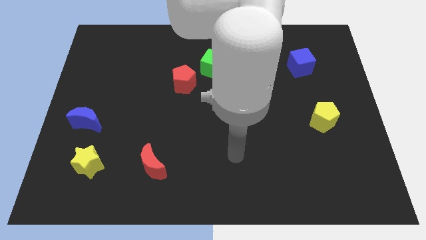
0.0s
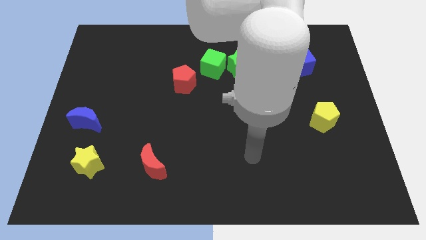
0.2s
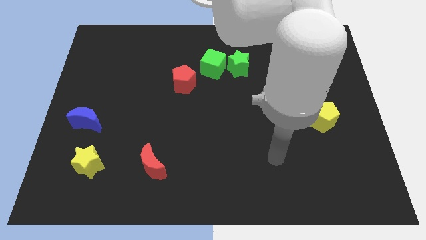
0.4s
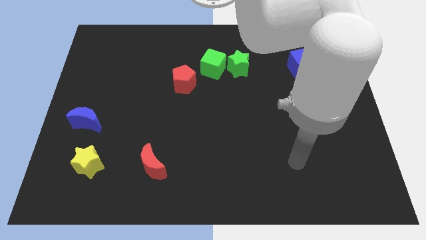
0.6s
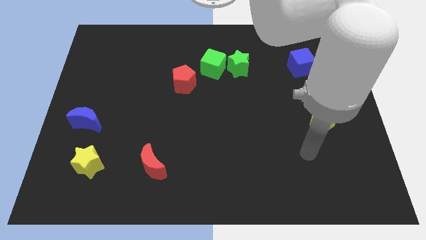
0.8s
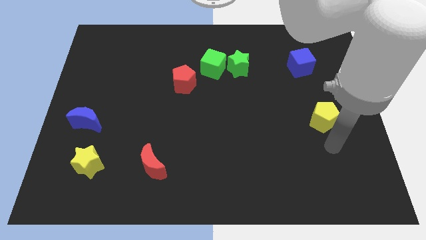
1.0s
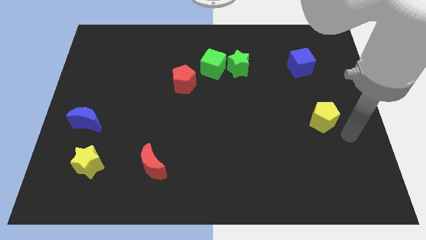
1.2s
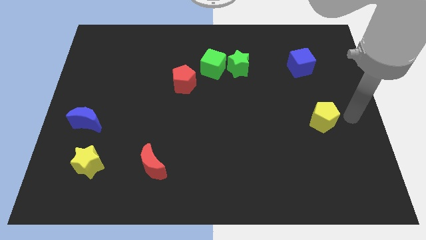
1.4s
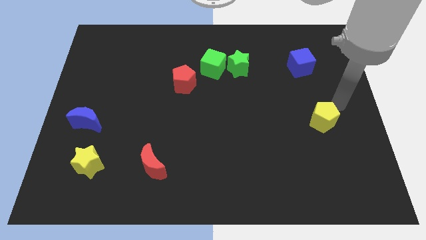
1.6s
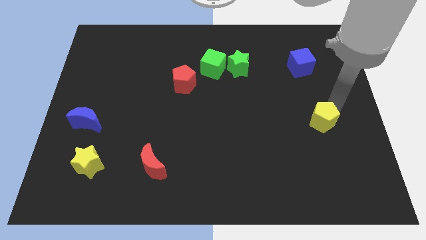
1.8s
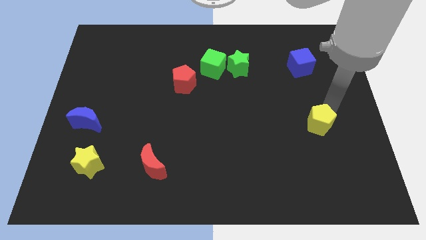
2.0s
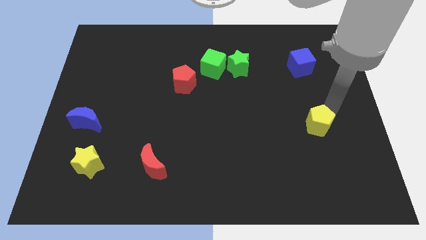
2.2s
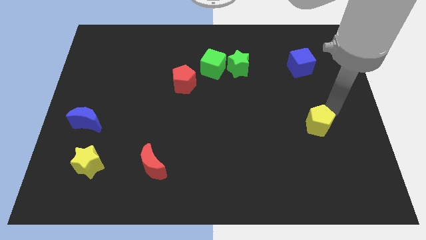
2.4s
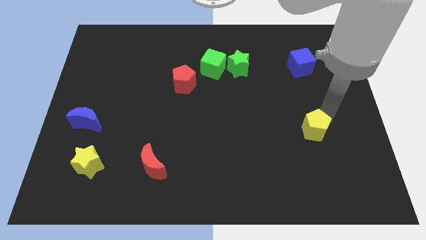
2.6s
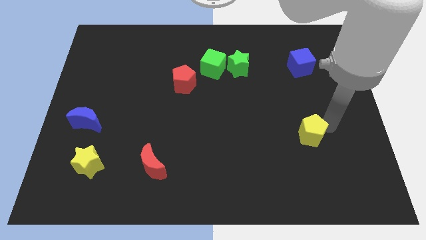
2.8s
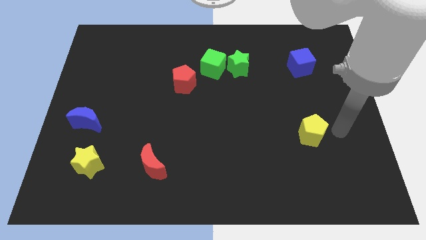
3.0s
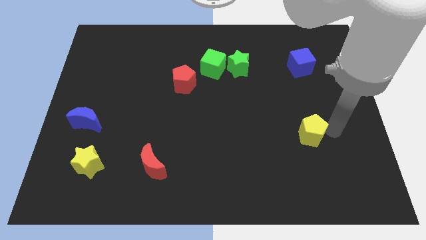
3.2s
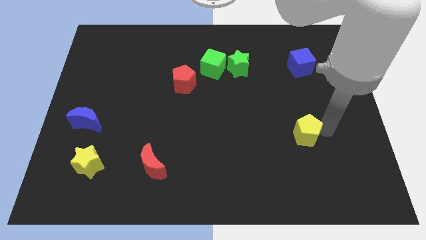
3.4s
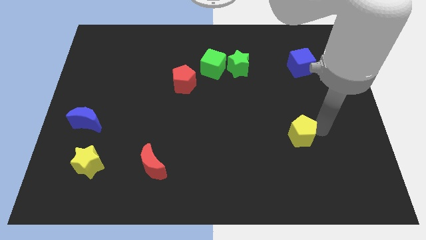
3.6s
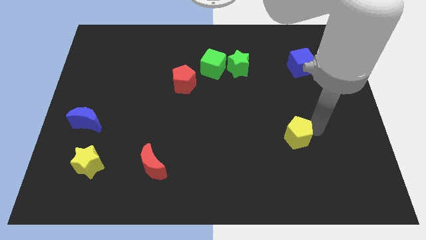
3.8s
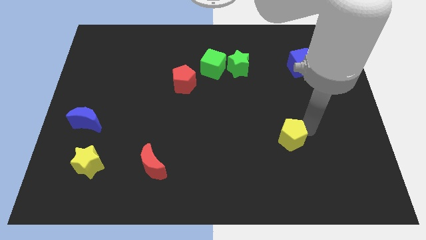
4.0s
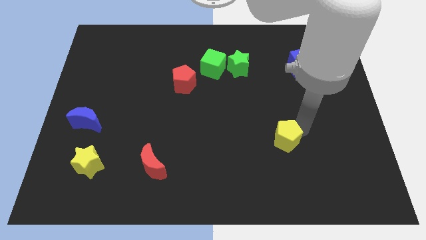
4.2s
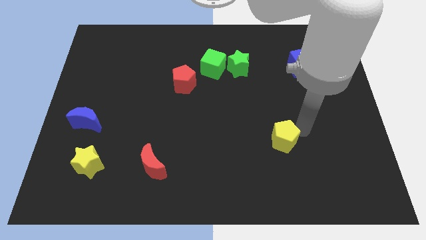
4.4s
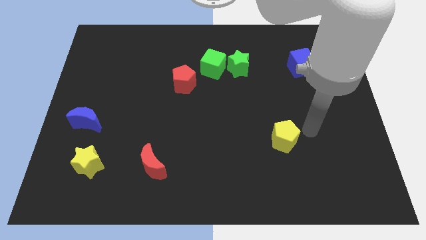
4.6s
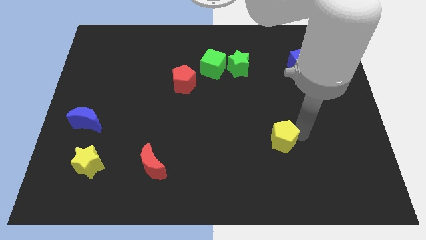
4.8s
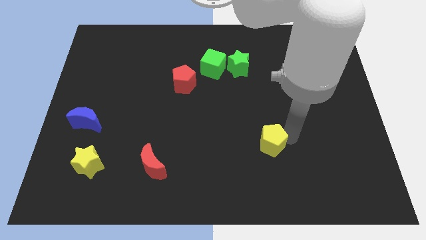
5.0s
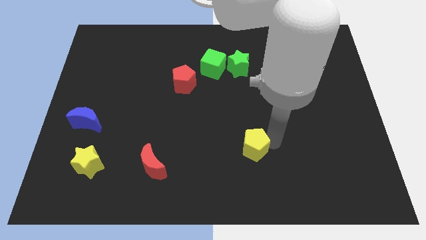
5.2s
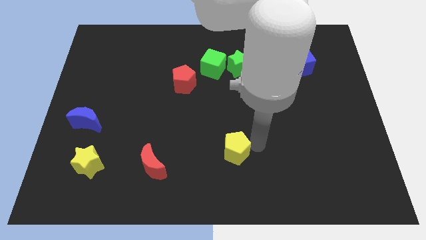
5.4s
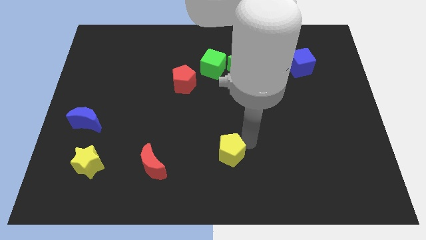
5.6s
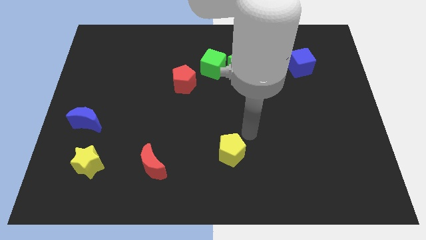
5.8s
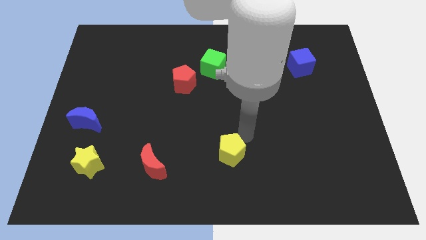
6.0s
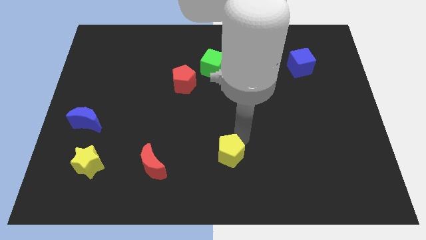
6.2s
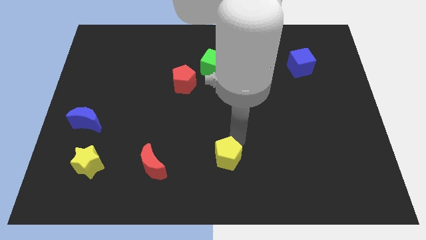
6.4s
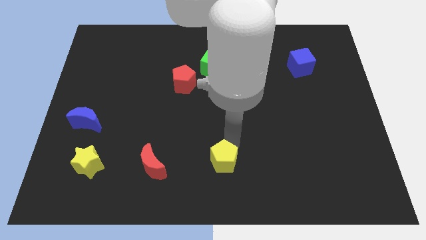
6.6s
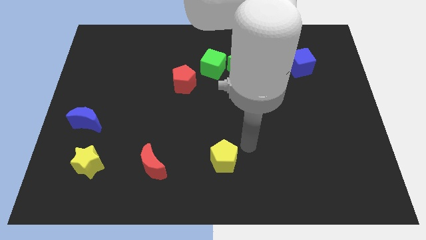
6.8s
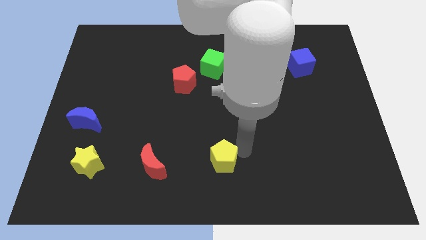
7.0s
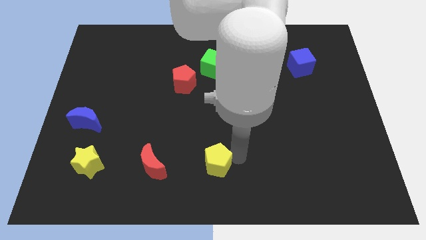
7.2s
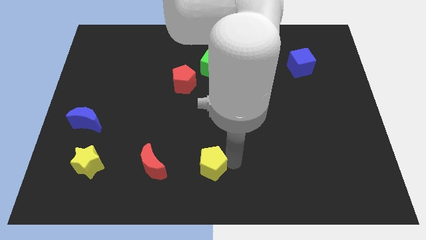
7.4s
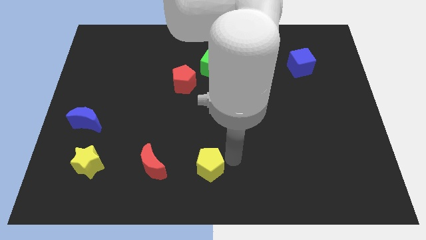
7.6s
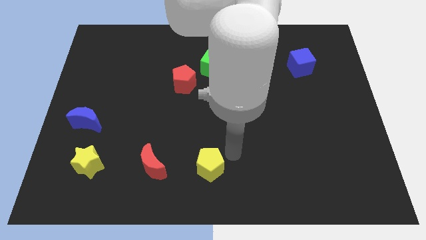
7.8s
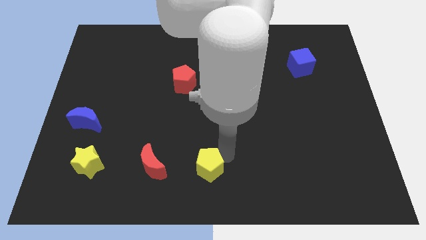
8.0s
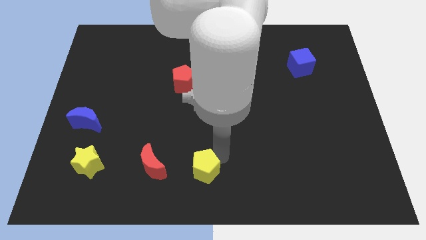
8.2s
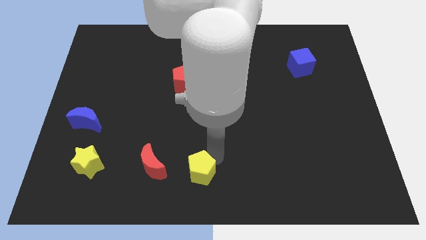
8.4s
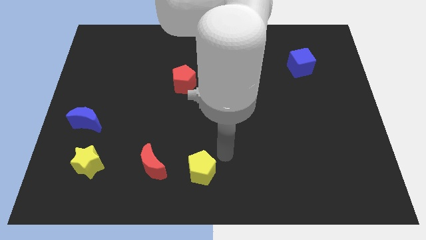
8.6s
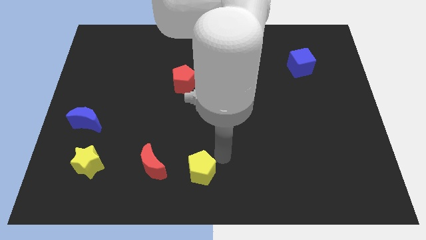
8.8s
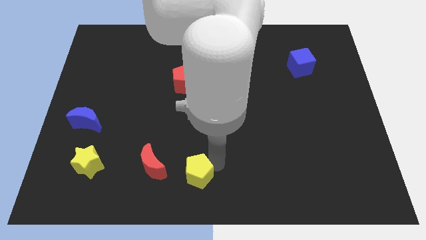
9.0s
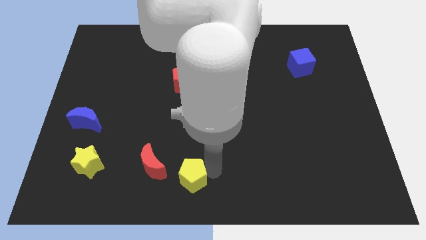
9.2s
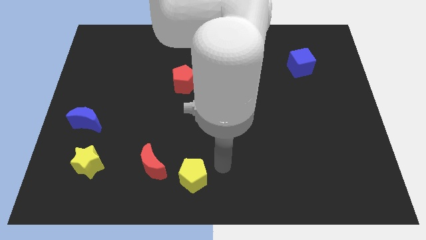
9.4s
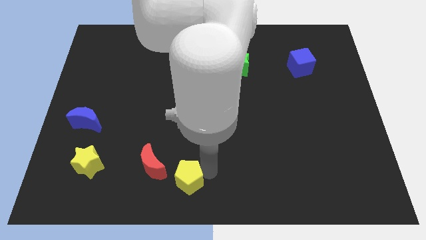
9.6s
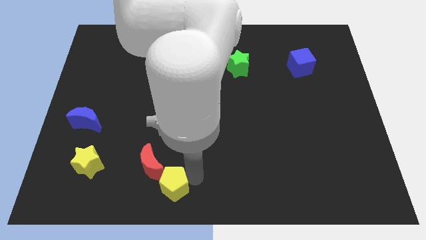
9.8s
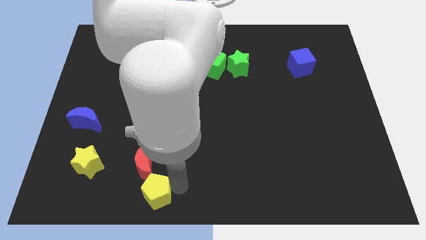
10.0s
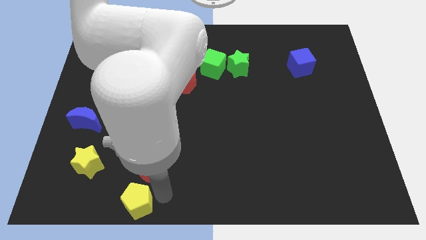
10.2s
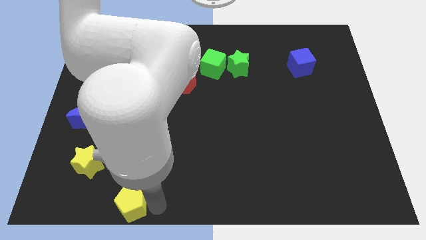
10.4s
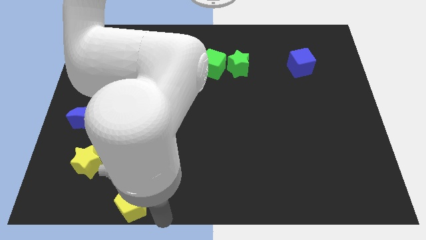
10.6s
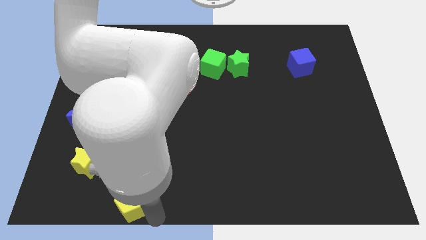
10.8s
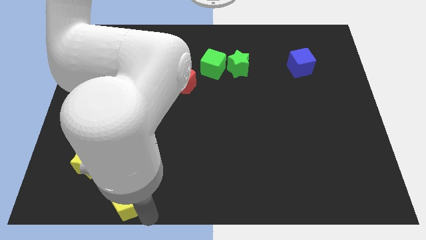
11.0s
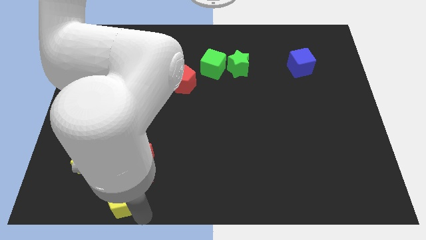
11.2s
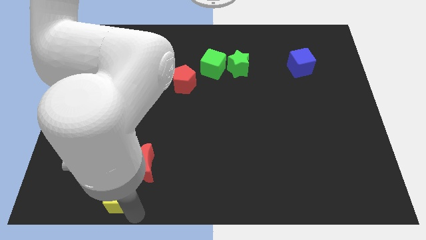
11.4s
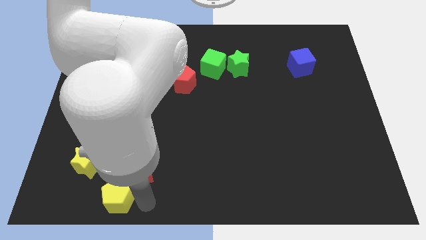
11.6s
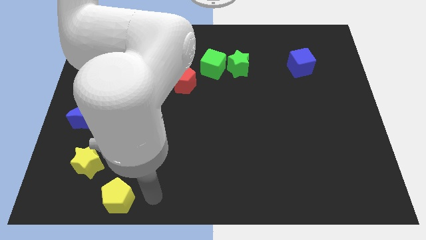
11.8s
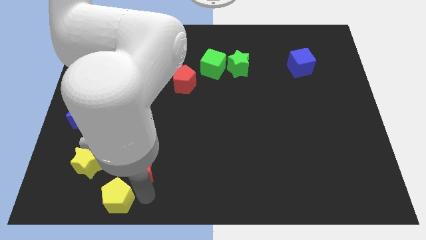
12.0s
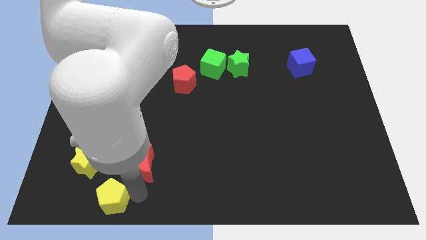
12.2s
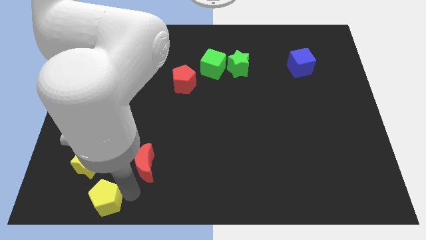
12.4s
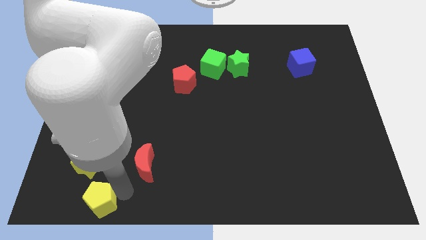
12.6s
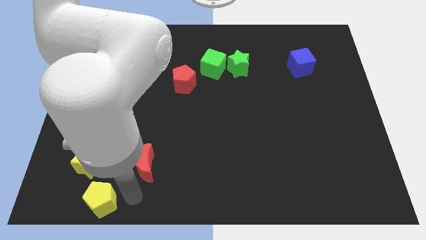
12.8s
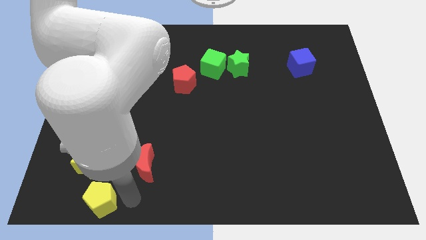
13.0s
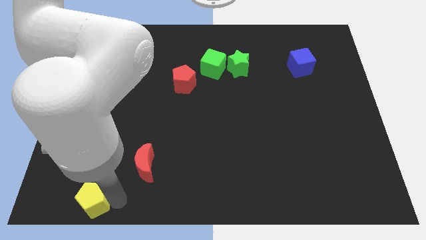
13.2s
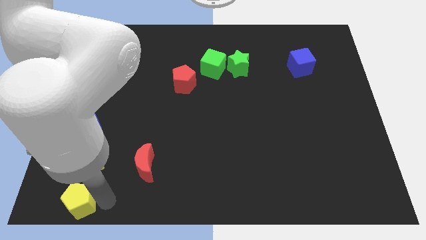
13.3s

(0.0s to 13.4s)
move the yellow pentagon to the bottom left corner
